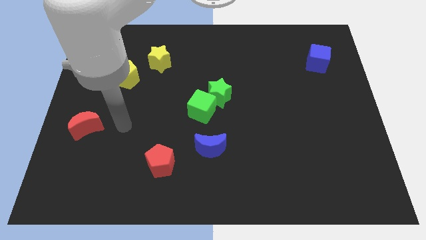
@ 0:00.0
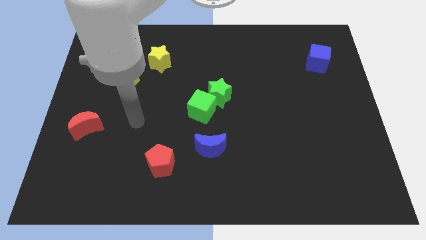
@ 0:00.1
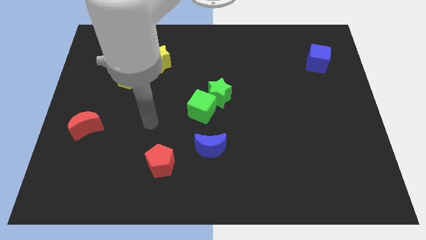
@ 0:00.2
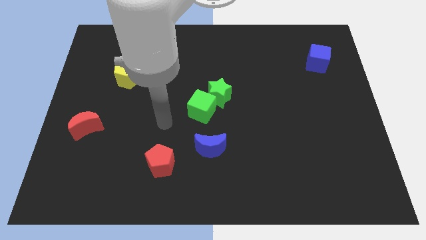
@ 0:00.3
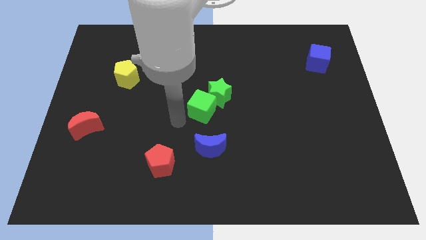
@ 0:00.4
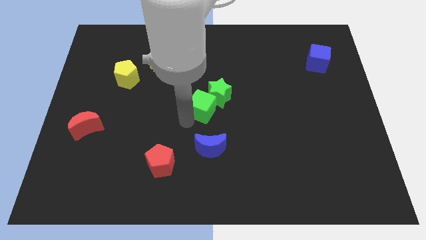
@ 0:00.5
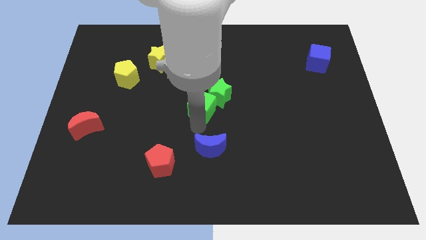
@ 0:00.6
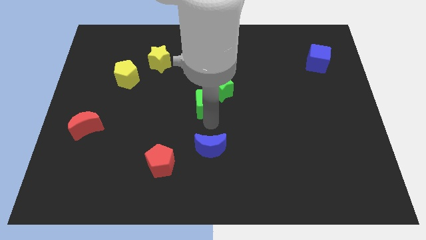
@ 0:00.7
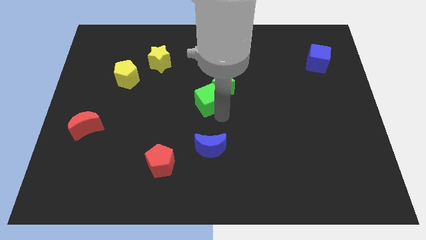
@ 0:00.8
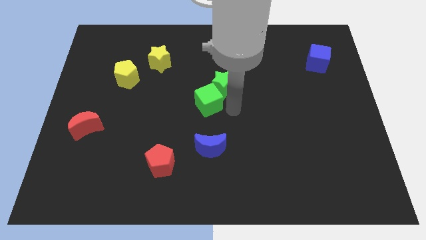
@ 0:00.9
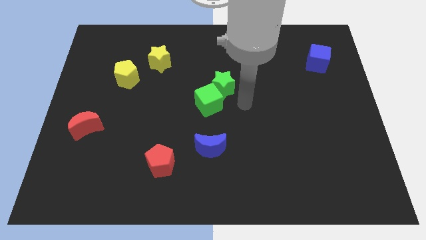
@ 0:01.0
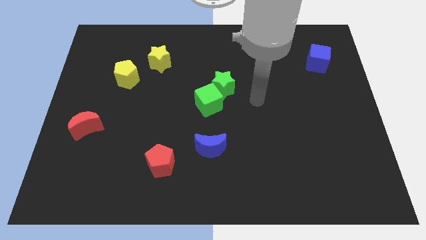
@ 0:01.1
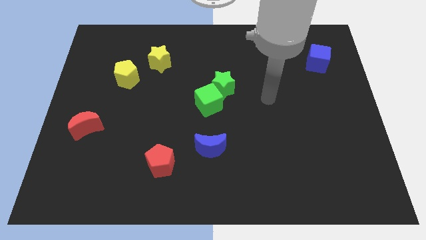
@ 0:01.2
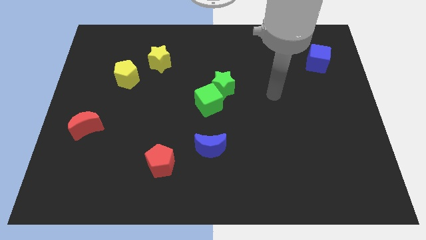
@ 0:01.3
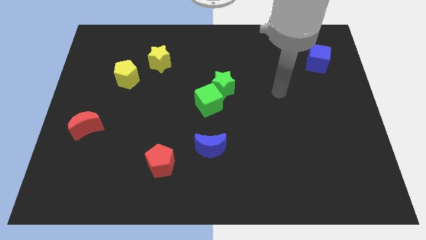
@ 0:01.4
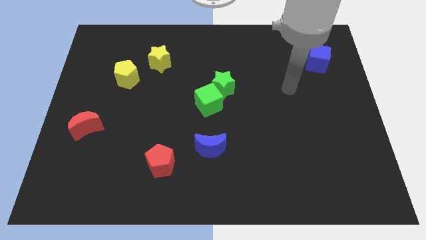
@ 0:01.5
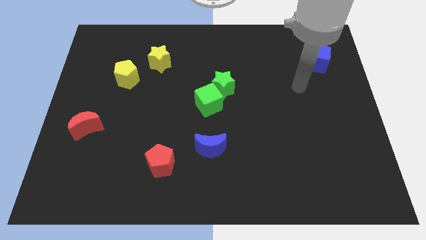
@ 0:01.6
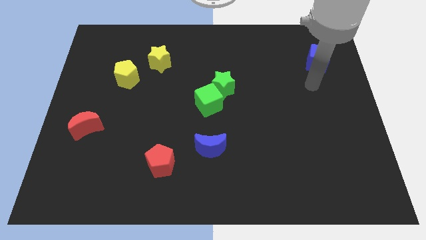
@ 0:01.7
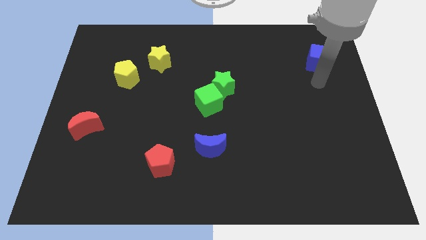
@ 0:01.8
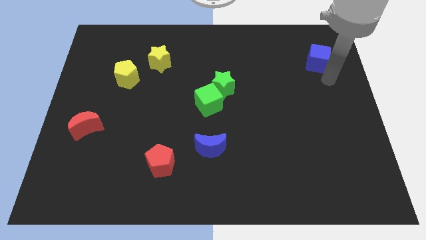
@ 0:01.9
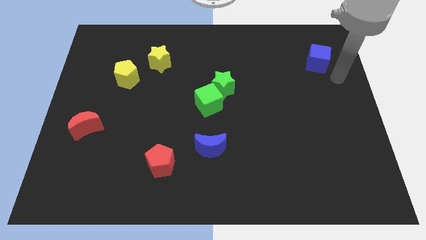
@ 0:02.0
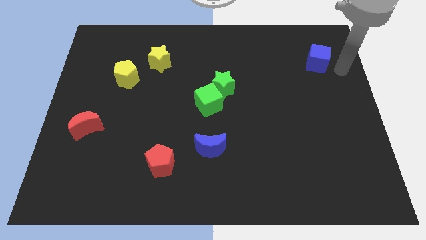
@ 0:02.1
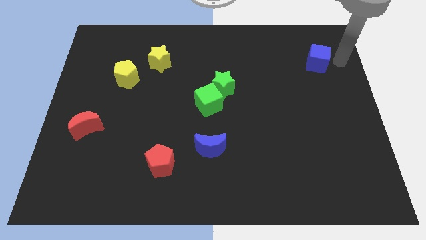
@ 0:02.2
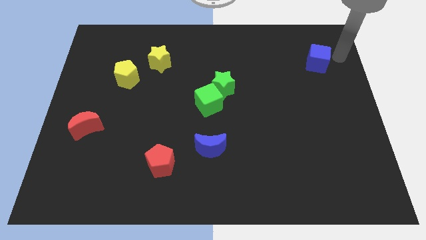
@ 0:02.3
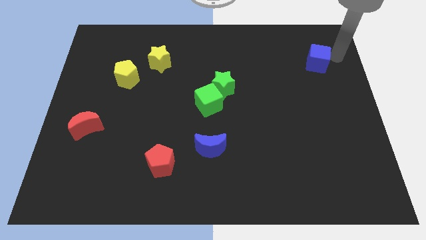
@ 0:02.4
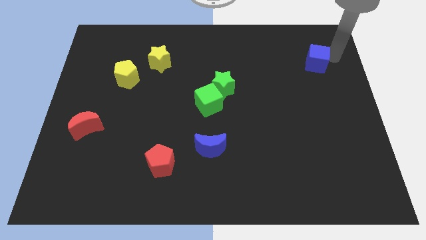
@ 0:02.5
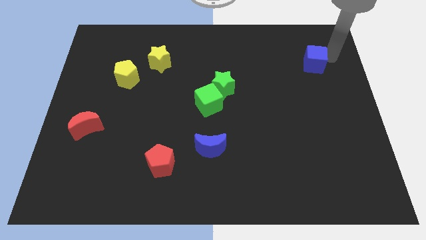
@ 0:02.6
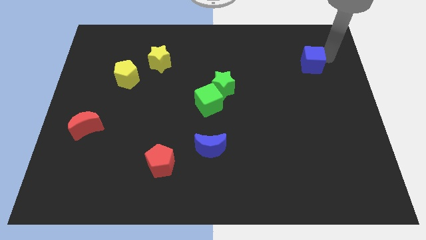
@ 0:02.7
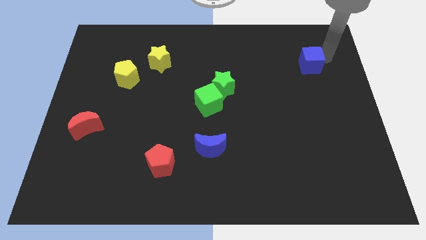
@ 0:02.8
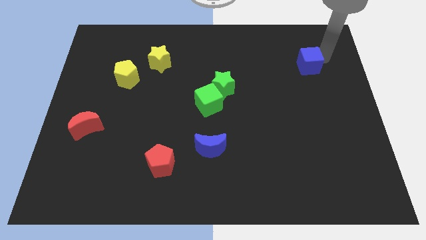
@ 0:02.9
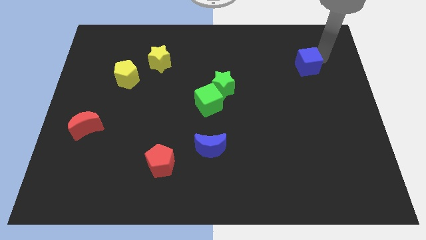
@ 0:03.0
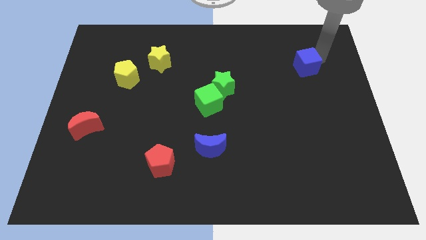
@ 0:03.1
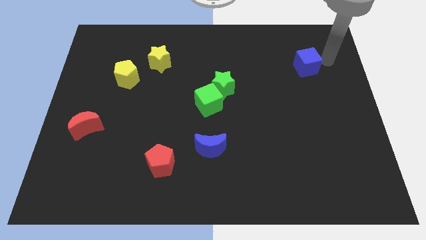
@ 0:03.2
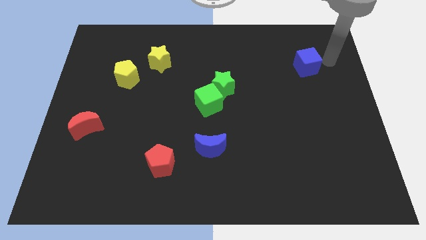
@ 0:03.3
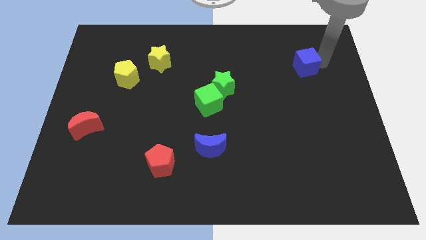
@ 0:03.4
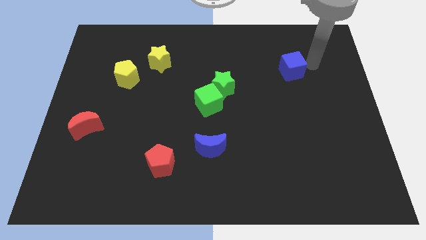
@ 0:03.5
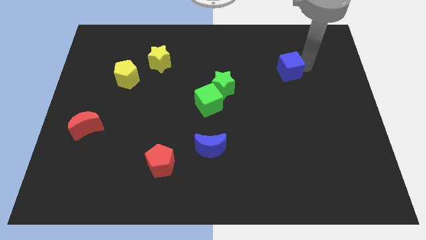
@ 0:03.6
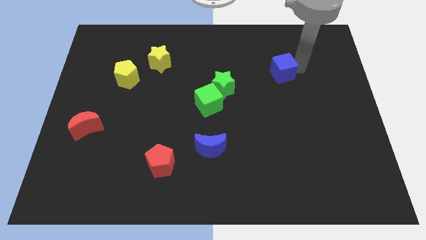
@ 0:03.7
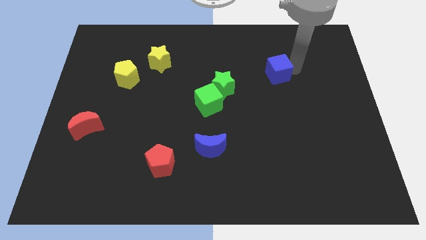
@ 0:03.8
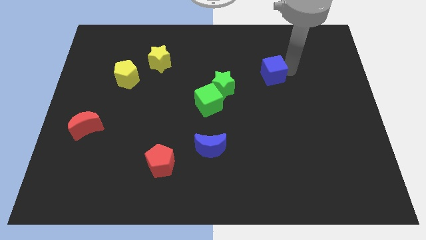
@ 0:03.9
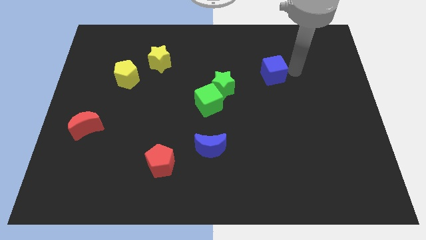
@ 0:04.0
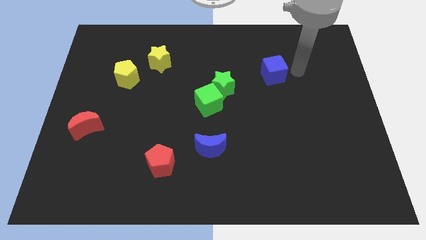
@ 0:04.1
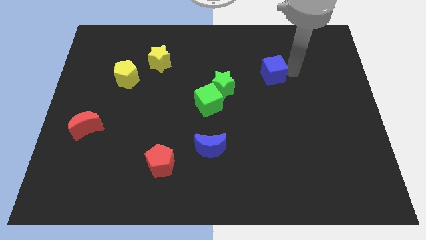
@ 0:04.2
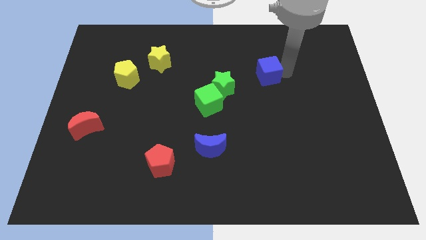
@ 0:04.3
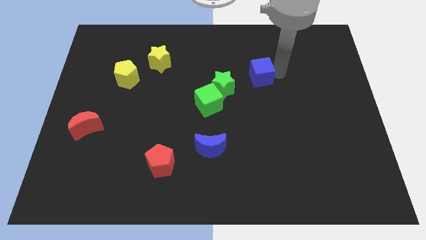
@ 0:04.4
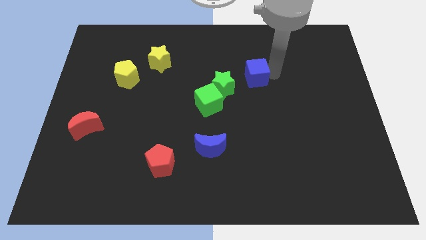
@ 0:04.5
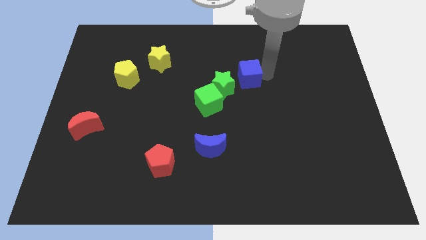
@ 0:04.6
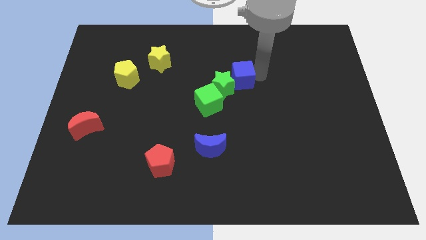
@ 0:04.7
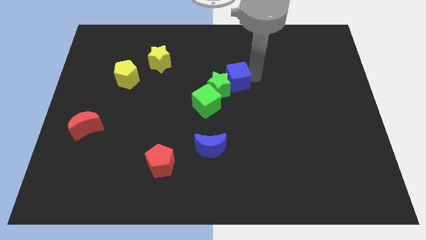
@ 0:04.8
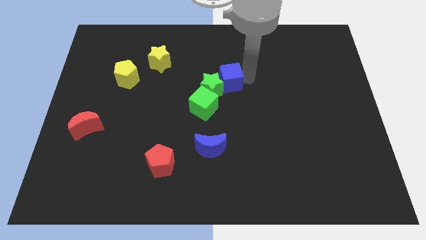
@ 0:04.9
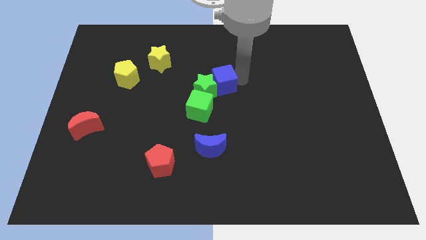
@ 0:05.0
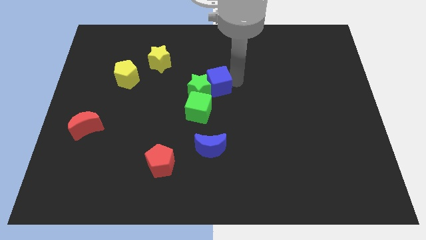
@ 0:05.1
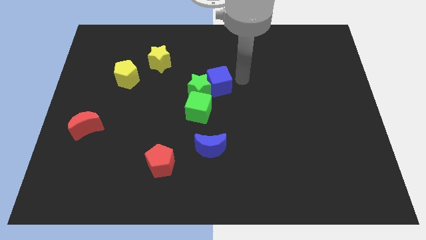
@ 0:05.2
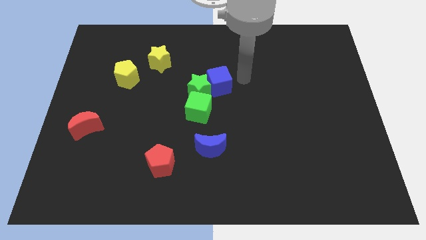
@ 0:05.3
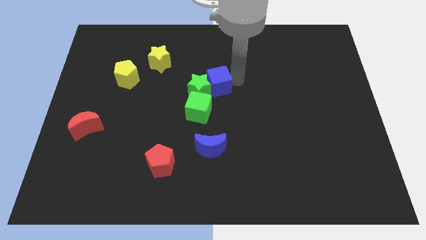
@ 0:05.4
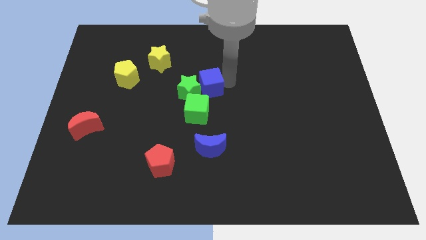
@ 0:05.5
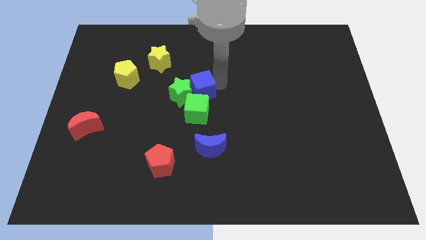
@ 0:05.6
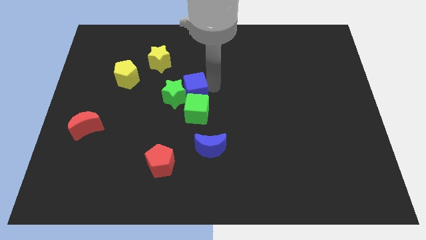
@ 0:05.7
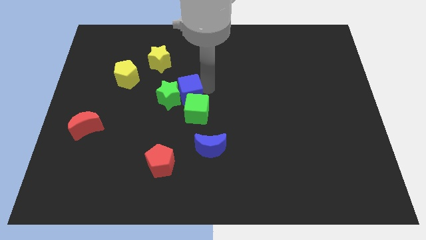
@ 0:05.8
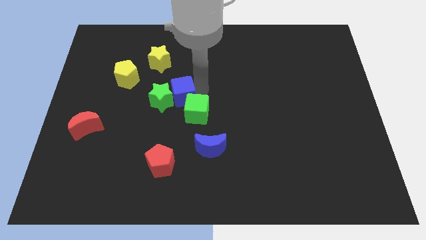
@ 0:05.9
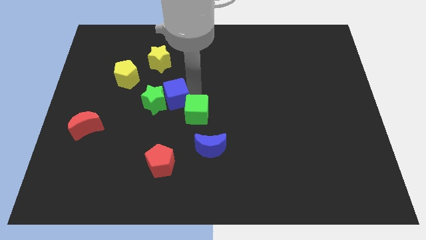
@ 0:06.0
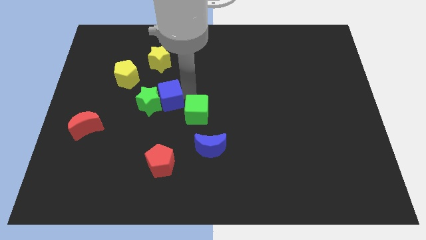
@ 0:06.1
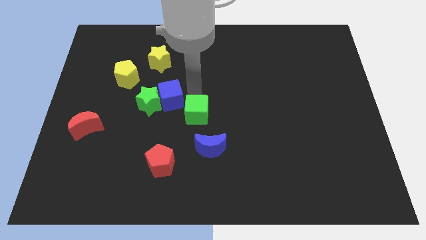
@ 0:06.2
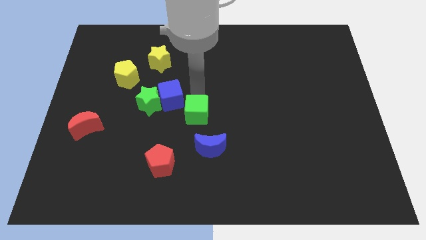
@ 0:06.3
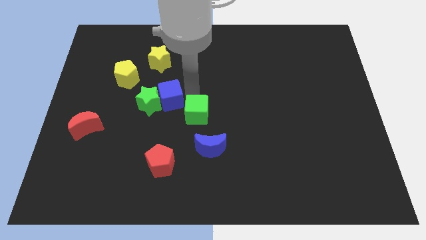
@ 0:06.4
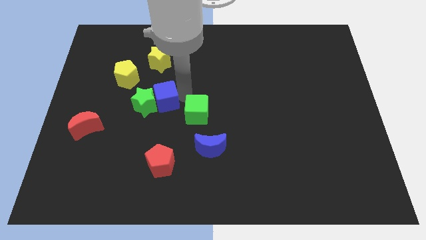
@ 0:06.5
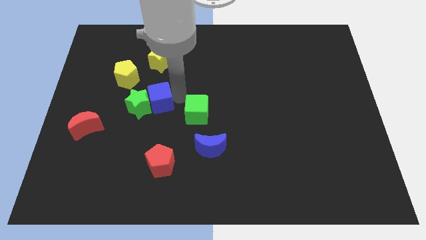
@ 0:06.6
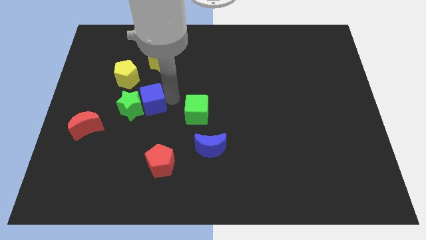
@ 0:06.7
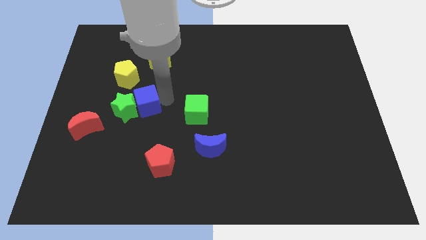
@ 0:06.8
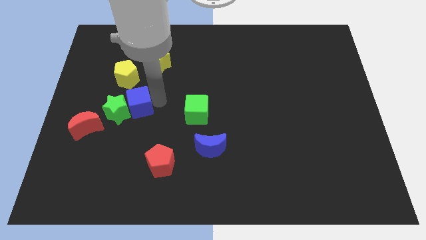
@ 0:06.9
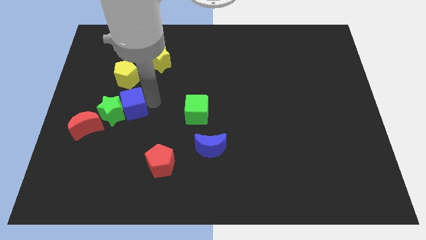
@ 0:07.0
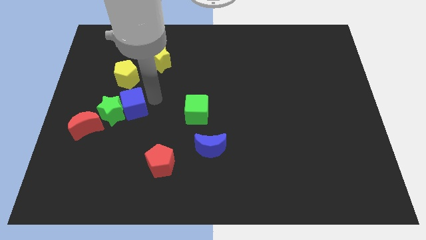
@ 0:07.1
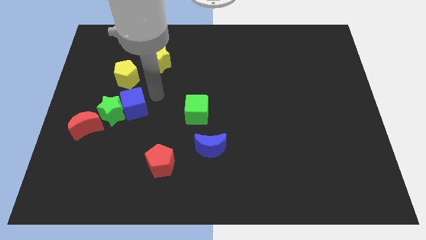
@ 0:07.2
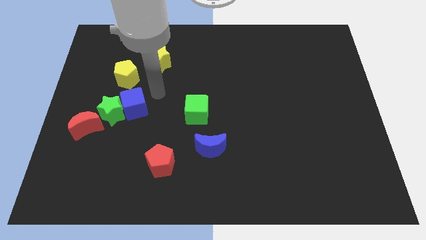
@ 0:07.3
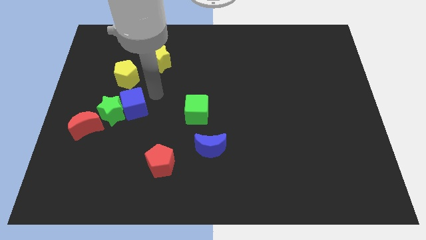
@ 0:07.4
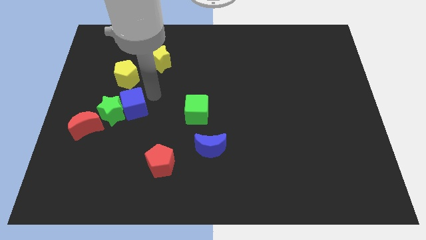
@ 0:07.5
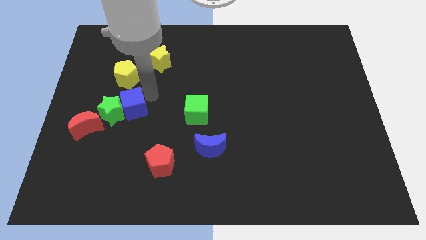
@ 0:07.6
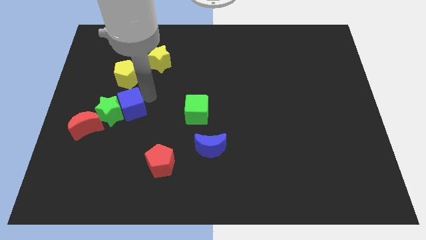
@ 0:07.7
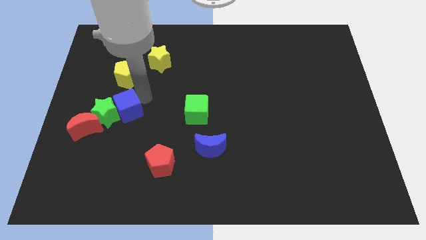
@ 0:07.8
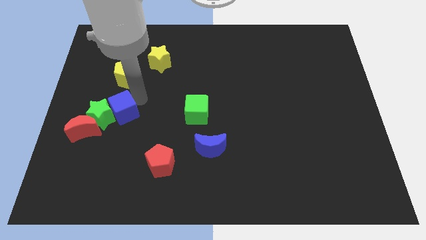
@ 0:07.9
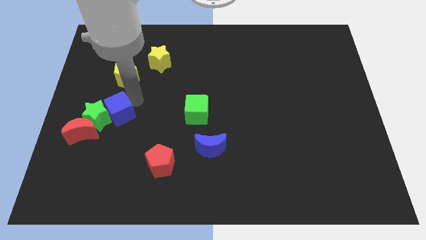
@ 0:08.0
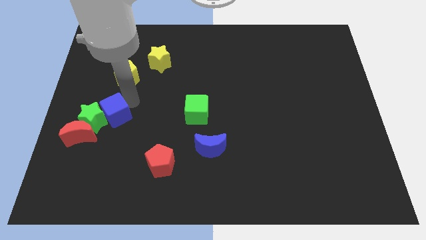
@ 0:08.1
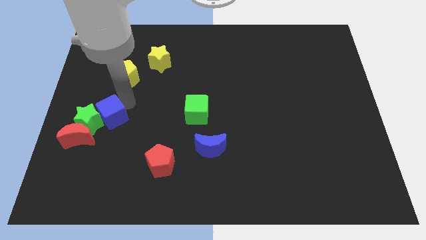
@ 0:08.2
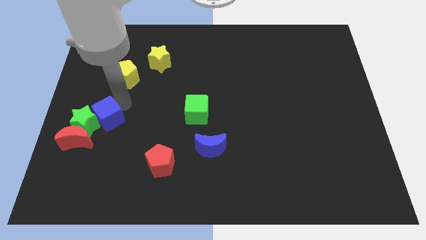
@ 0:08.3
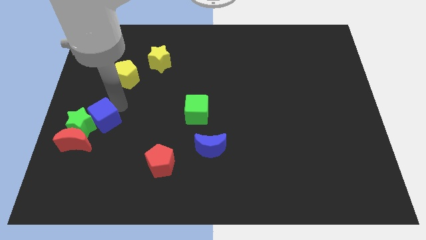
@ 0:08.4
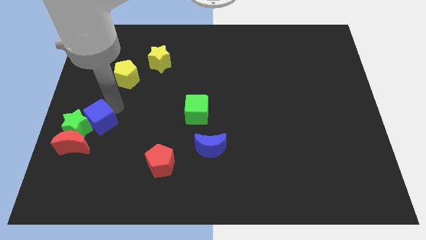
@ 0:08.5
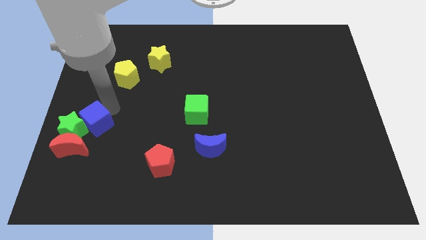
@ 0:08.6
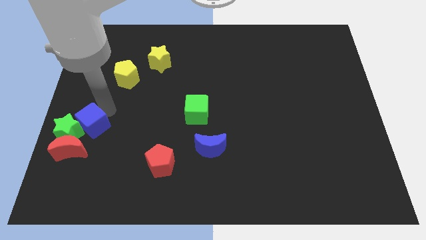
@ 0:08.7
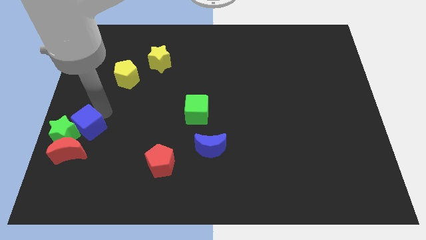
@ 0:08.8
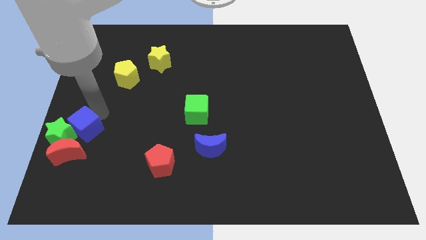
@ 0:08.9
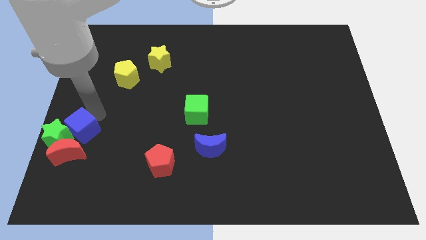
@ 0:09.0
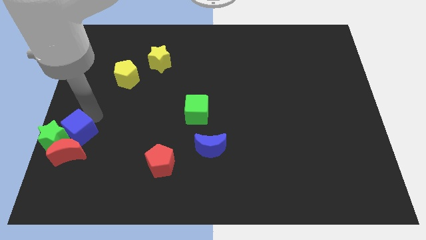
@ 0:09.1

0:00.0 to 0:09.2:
move the blue cube towards the red moon
